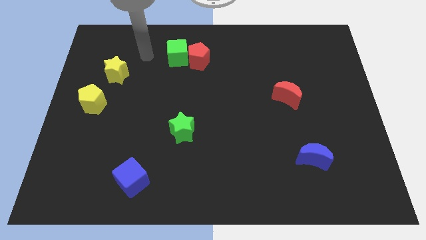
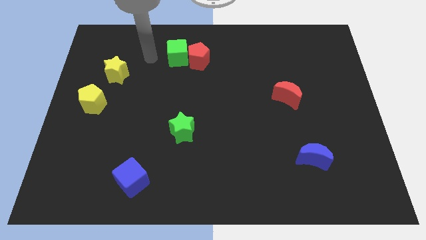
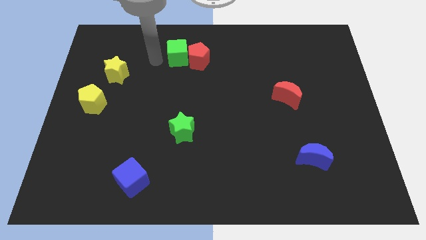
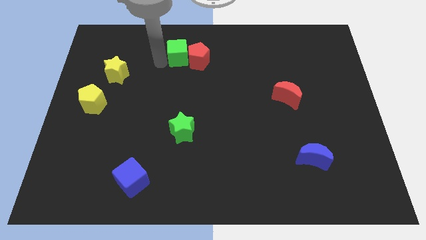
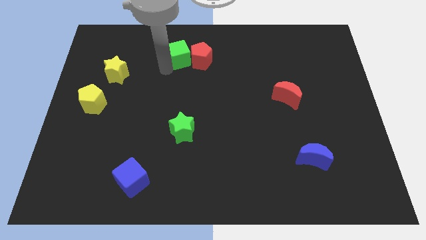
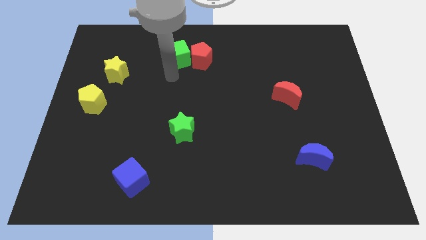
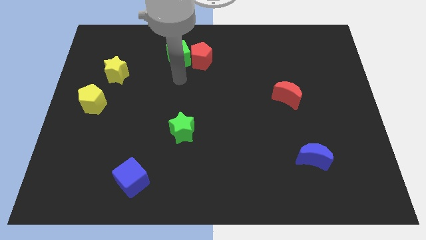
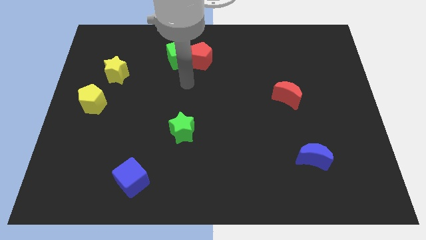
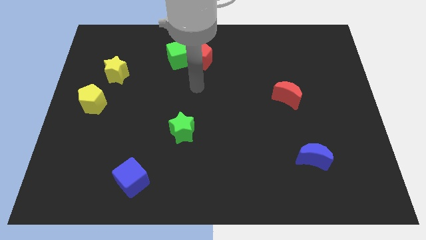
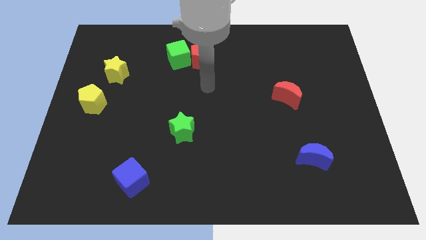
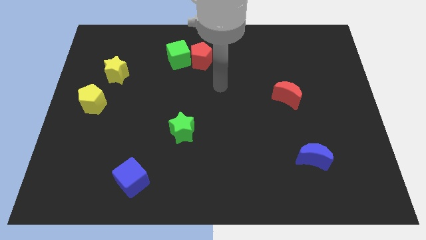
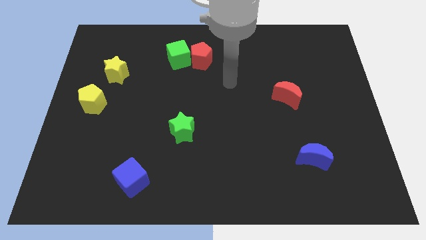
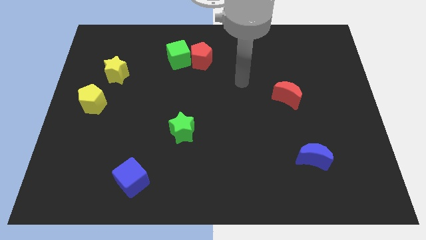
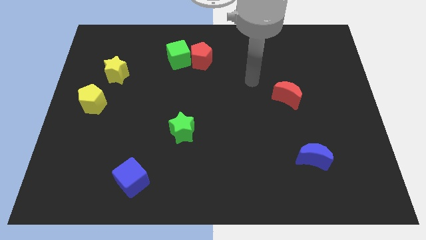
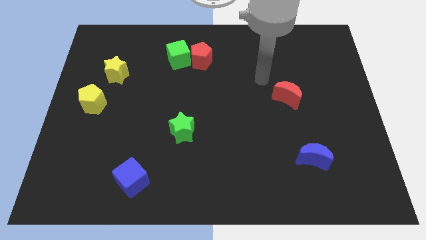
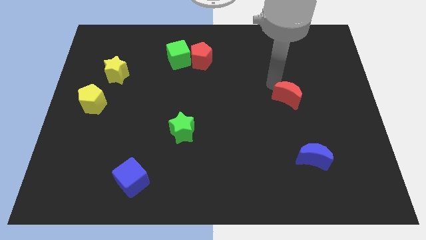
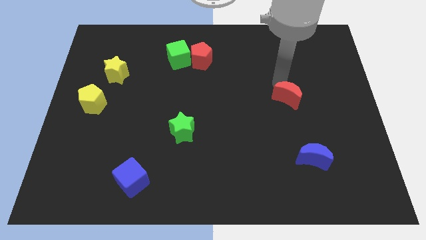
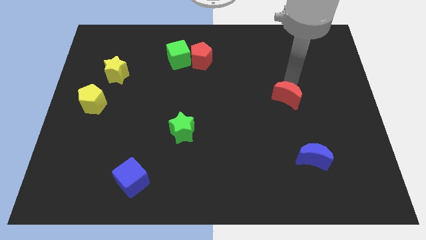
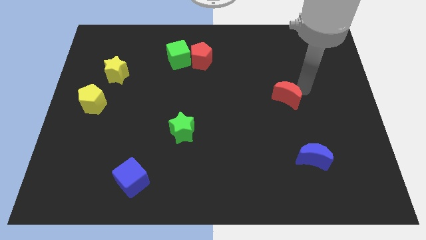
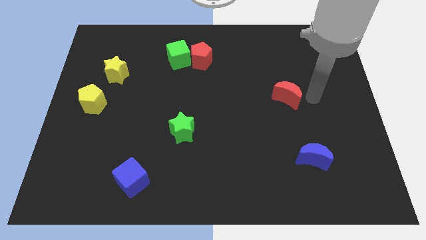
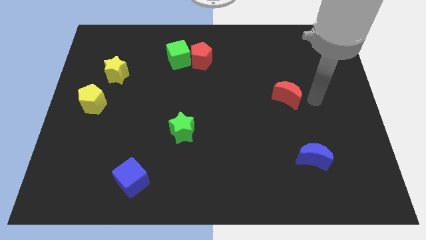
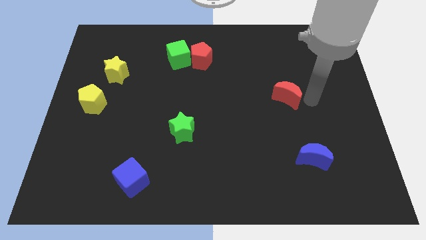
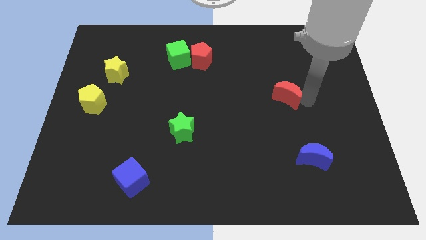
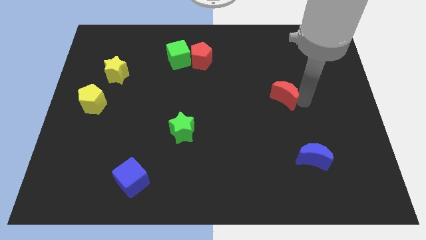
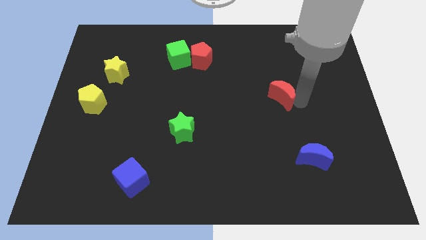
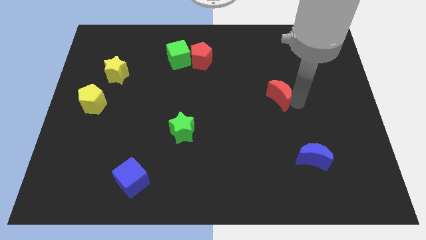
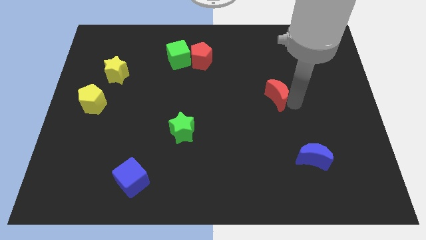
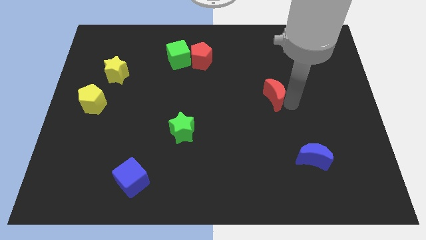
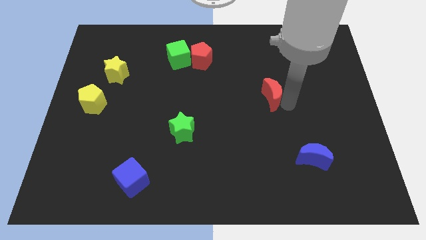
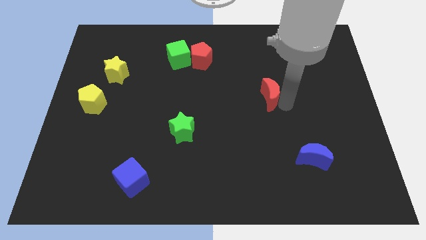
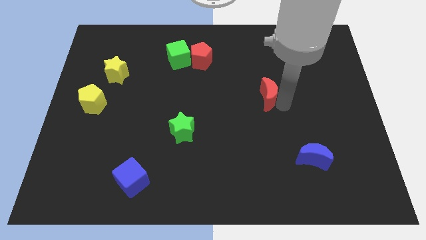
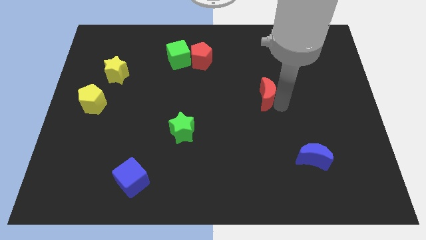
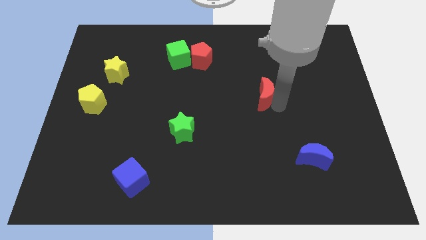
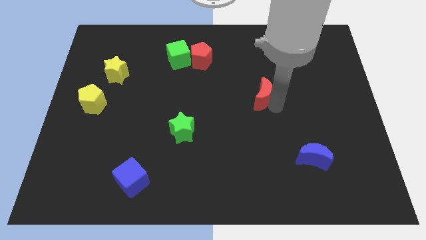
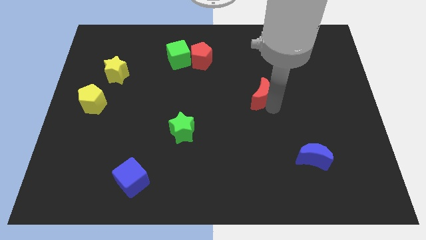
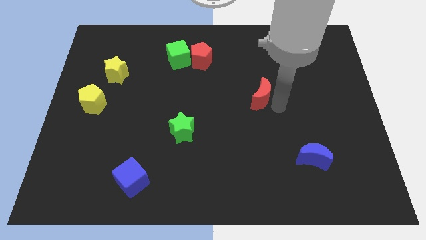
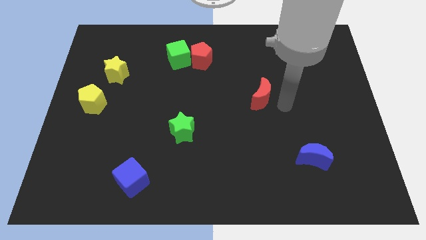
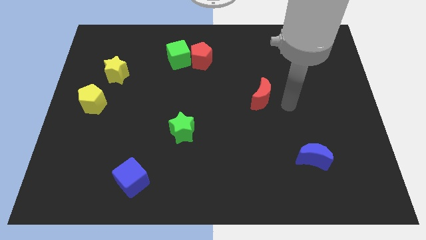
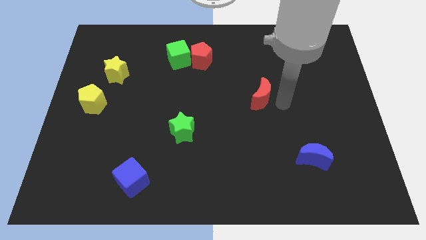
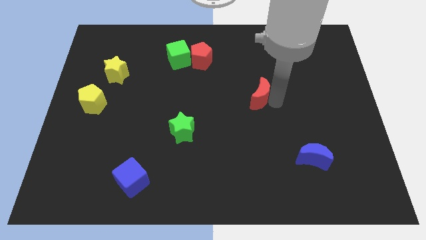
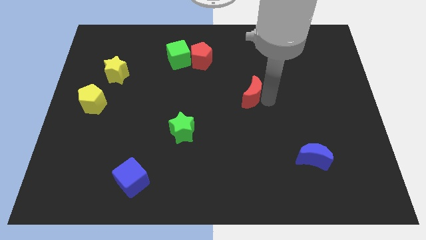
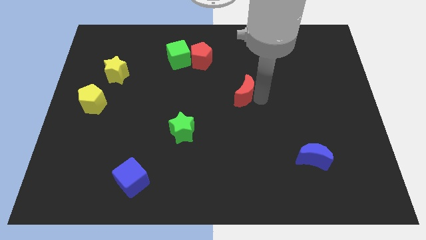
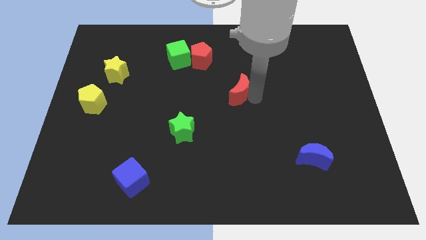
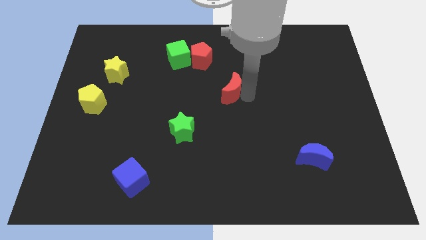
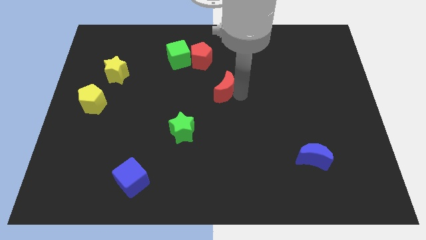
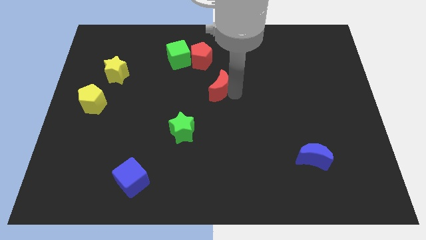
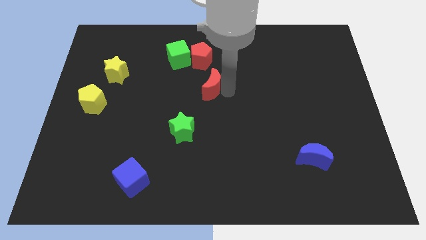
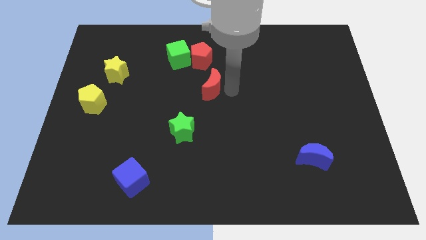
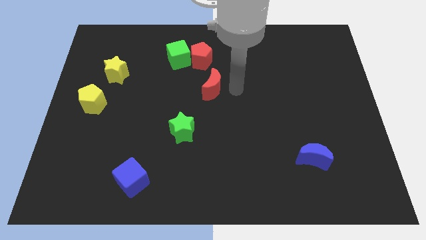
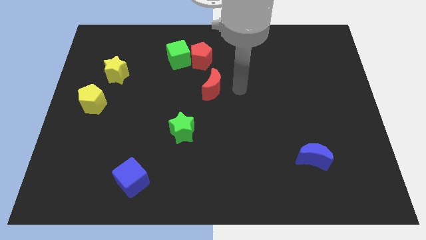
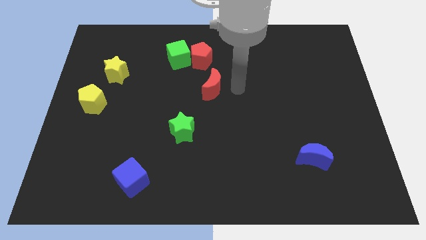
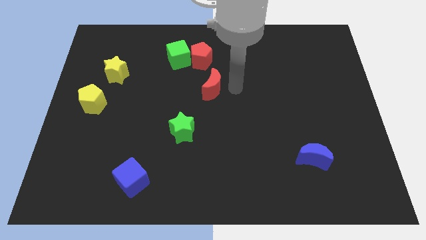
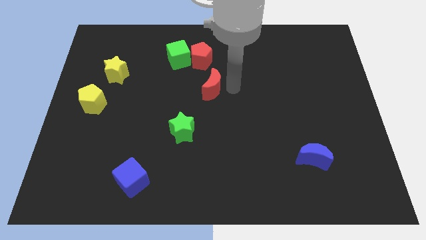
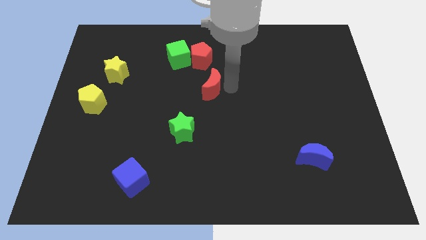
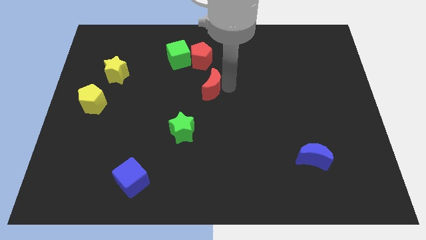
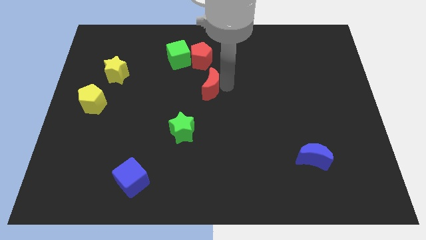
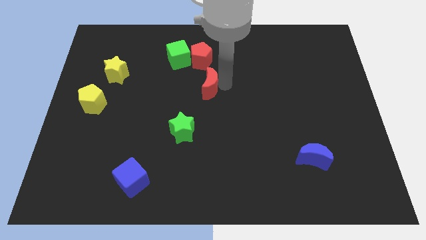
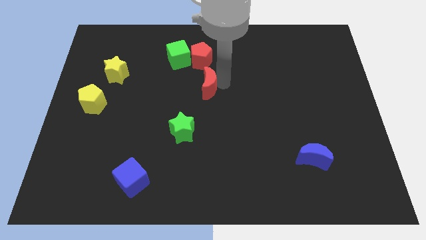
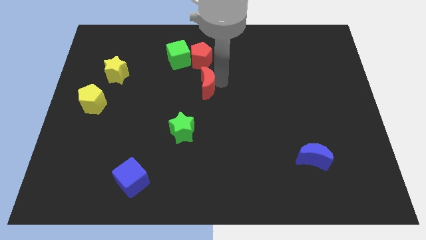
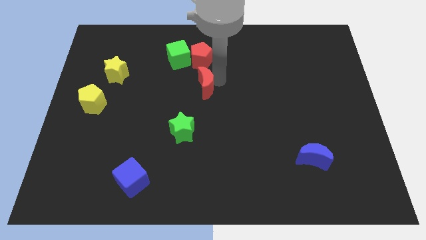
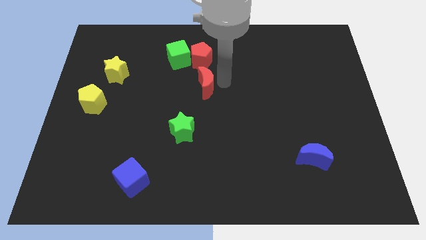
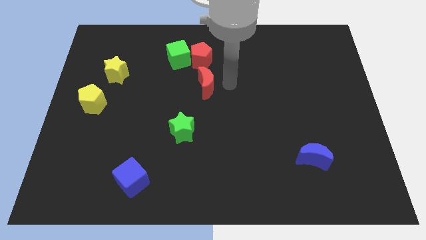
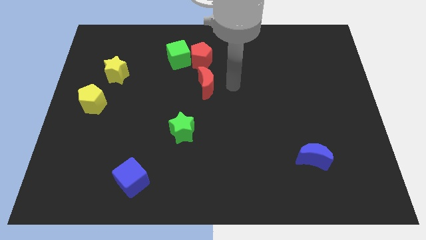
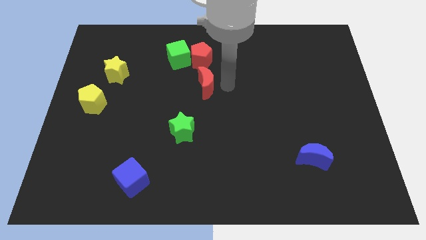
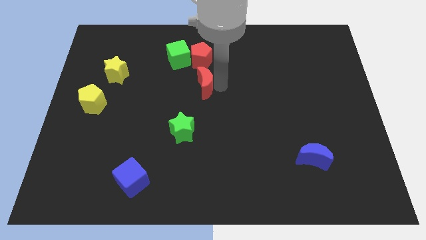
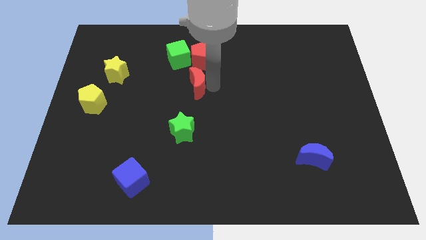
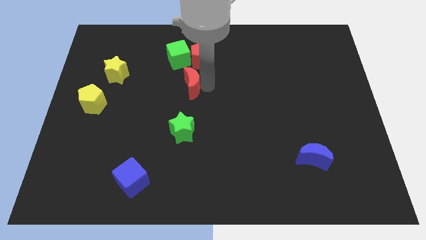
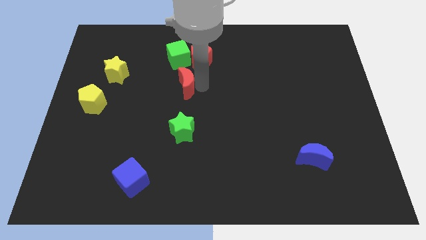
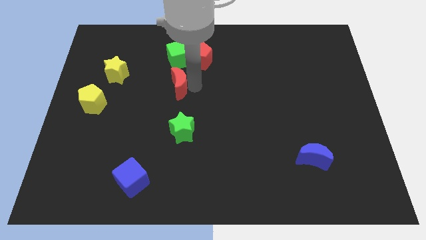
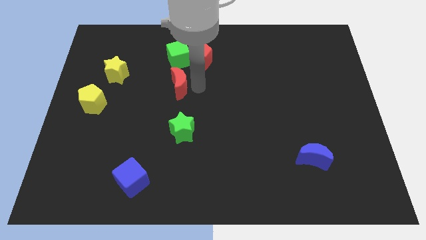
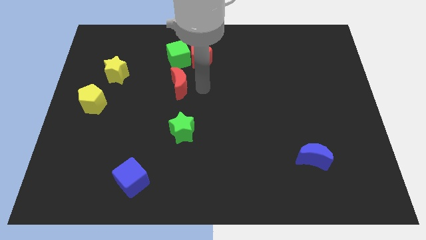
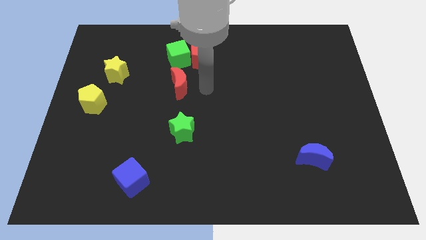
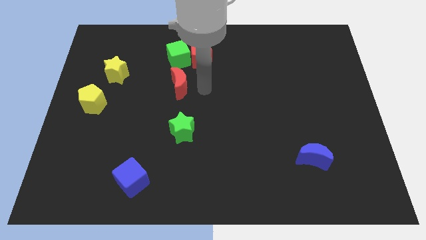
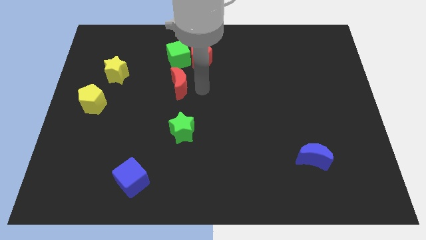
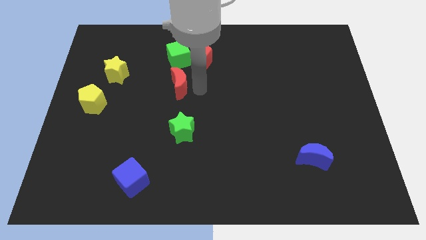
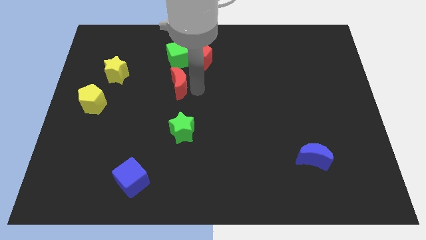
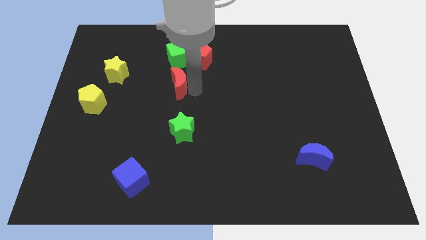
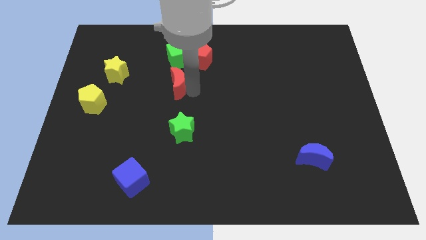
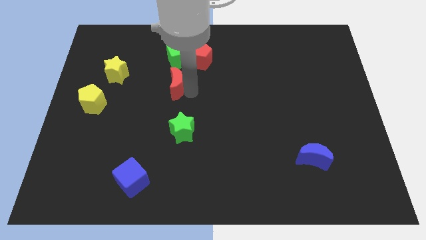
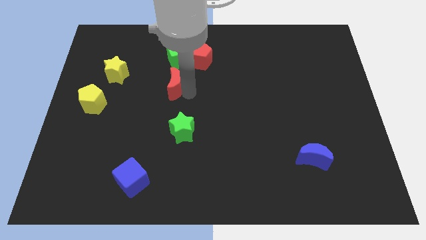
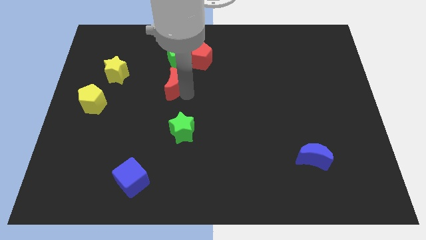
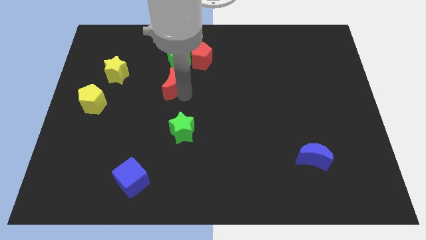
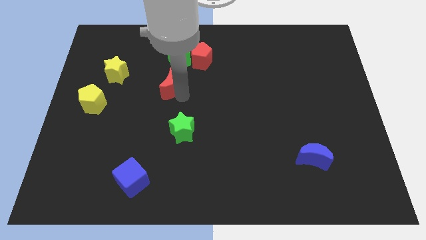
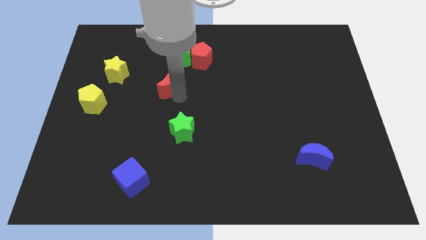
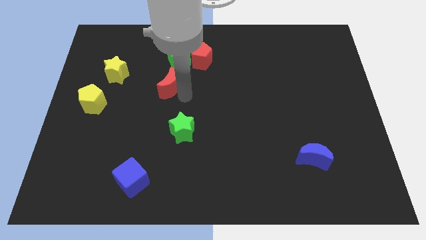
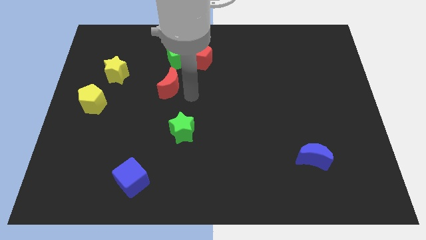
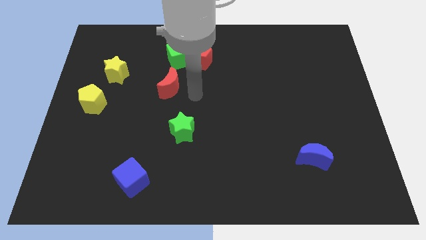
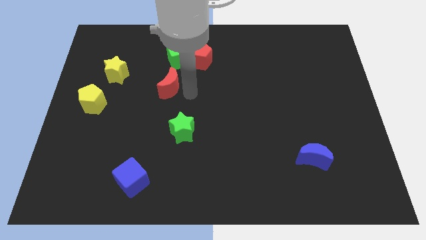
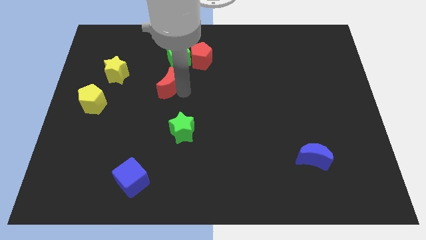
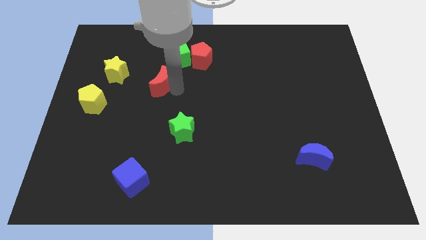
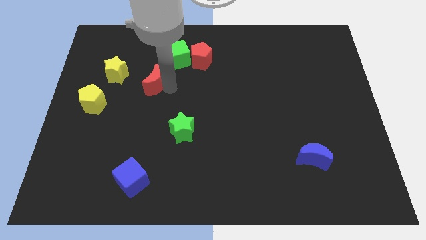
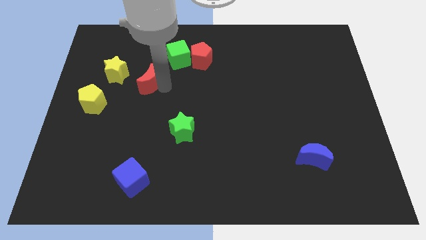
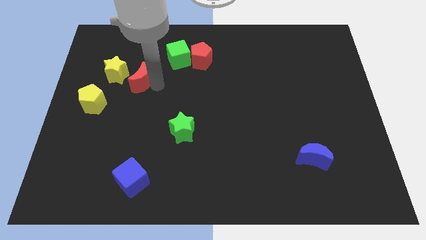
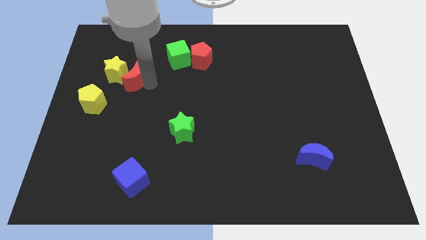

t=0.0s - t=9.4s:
put the red moon towards the yellow star
